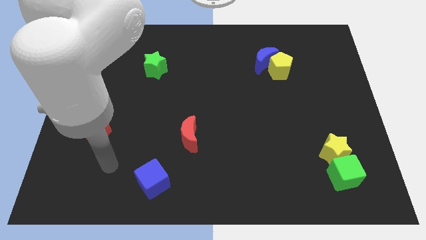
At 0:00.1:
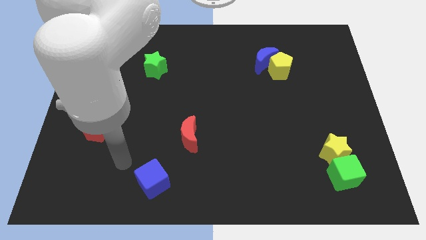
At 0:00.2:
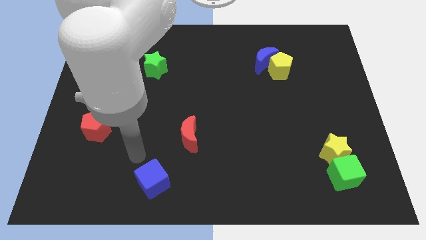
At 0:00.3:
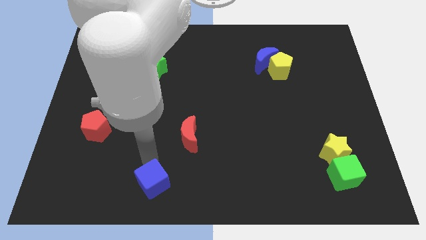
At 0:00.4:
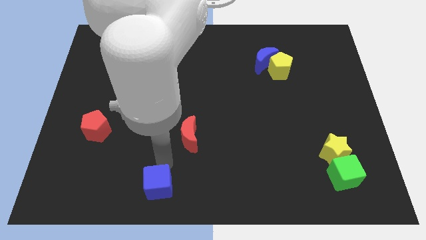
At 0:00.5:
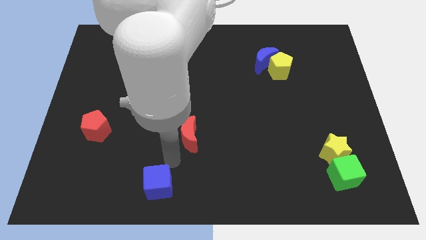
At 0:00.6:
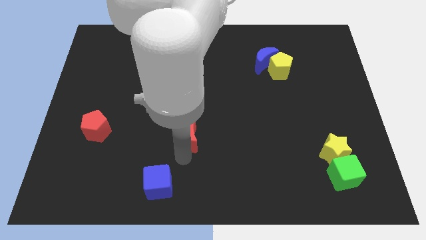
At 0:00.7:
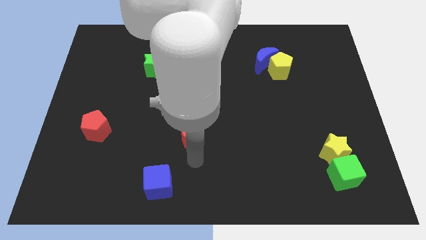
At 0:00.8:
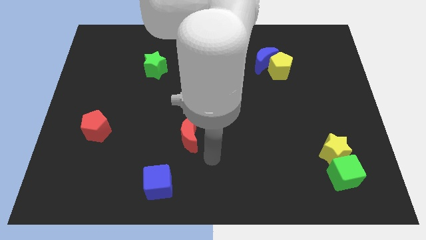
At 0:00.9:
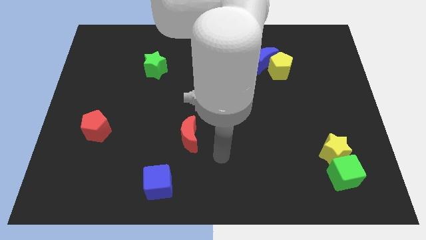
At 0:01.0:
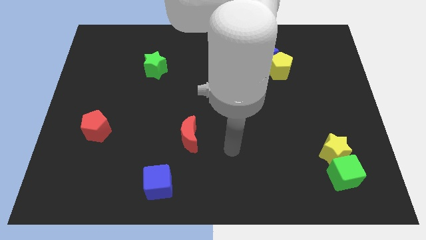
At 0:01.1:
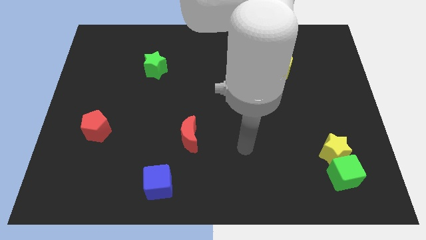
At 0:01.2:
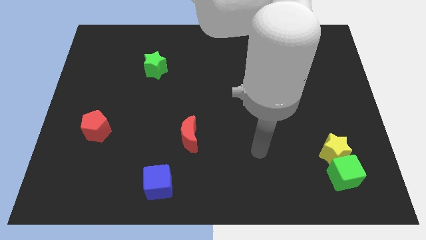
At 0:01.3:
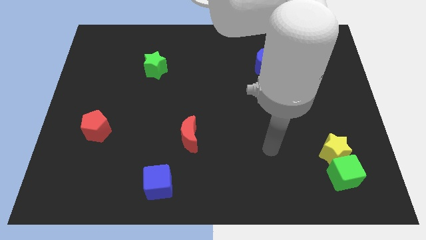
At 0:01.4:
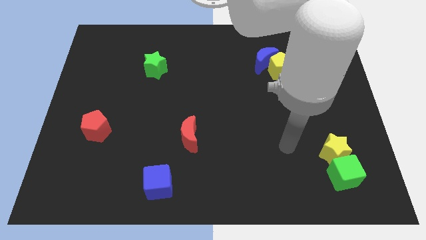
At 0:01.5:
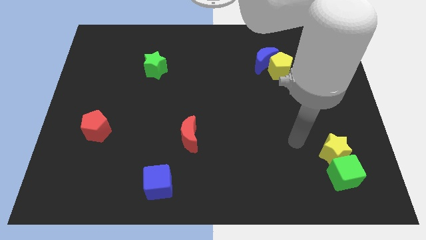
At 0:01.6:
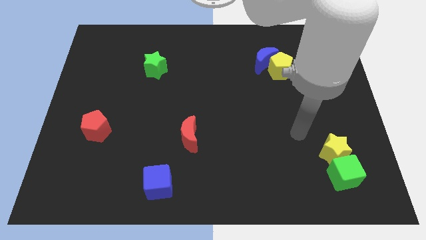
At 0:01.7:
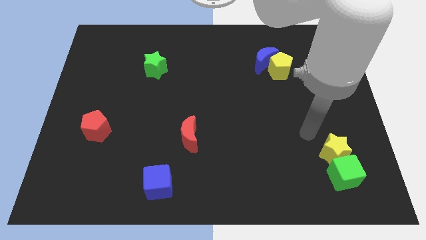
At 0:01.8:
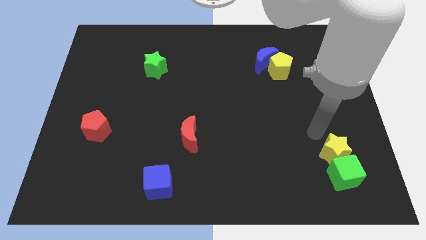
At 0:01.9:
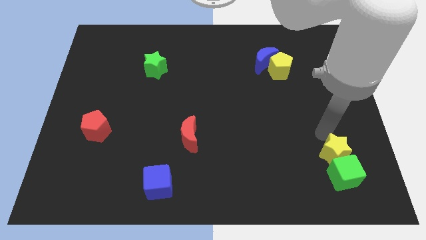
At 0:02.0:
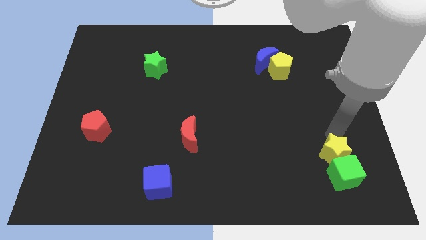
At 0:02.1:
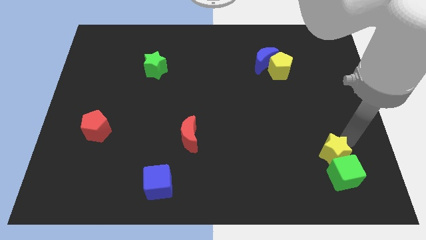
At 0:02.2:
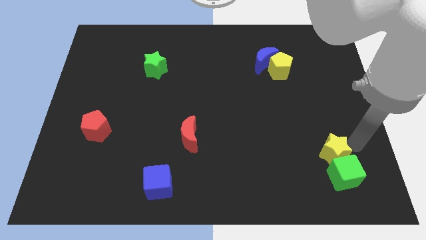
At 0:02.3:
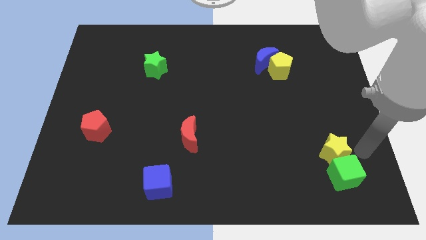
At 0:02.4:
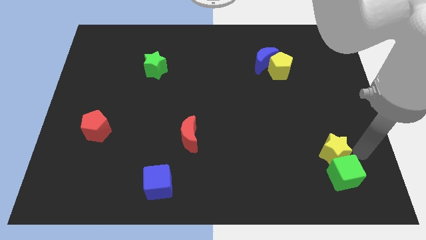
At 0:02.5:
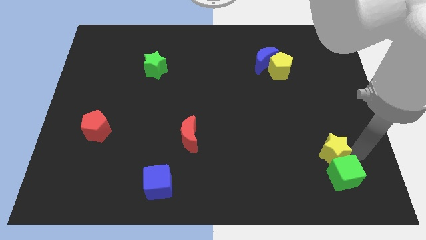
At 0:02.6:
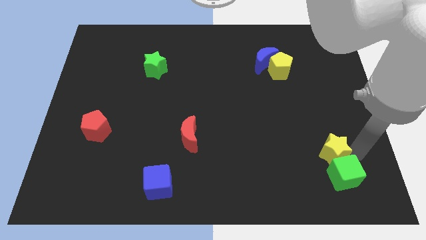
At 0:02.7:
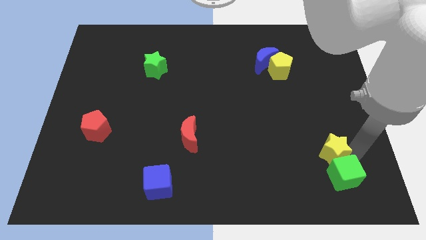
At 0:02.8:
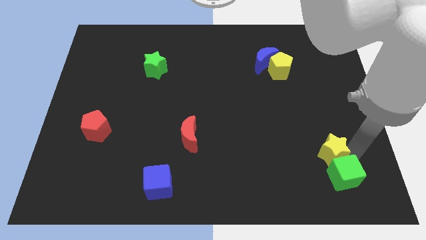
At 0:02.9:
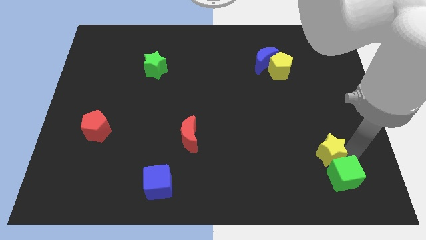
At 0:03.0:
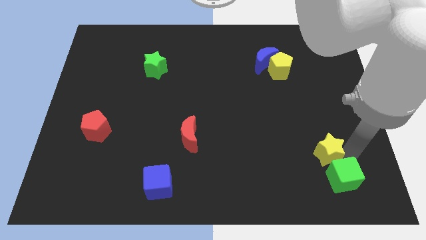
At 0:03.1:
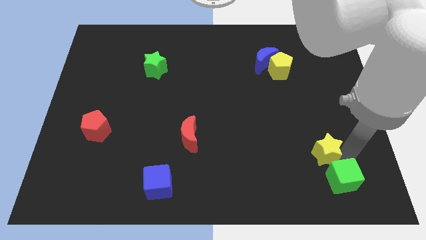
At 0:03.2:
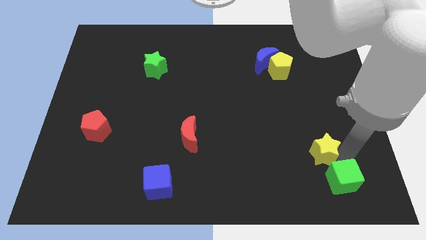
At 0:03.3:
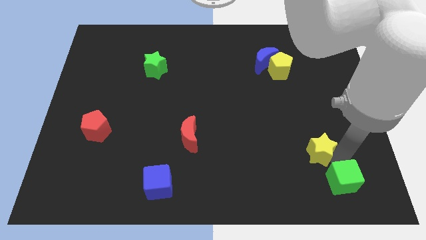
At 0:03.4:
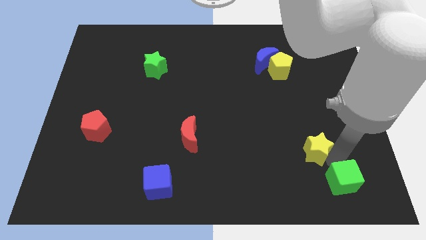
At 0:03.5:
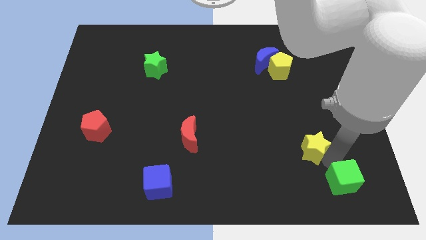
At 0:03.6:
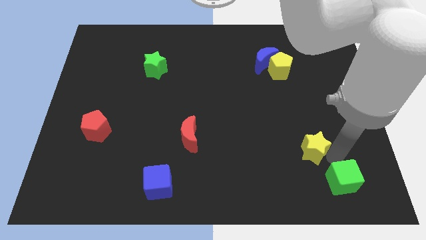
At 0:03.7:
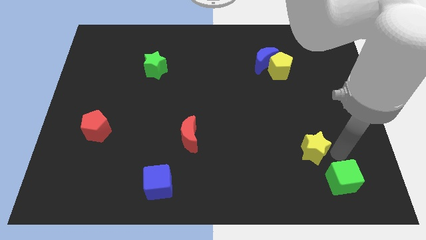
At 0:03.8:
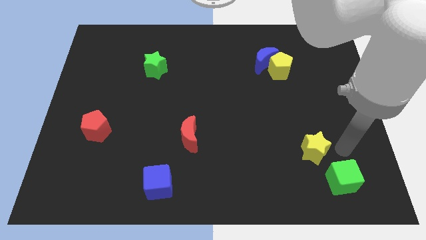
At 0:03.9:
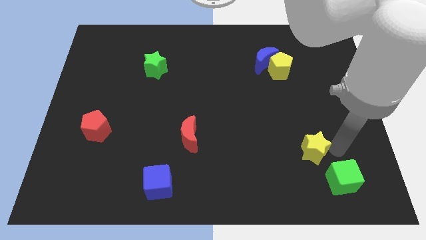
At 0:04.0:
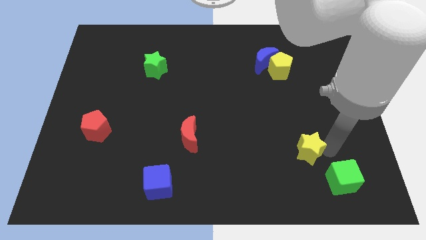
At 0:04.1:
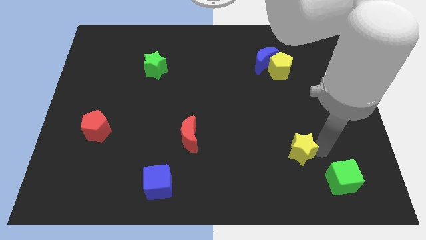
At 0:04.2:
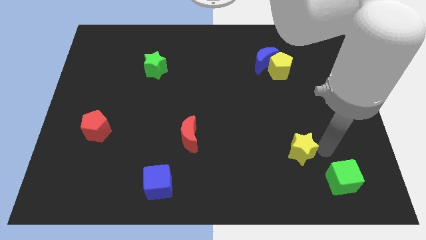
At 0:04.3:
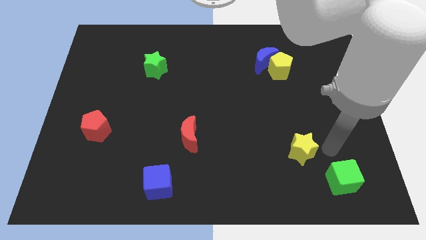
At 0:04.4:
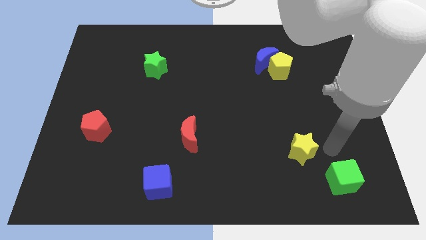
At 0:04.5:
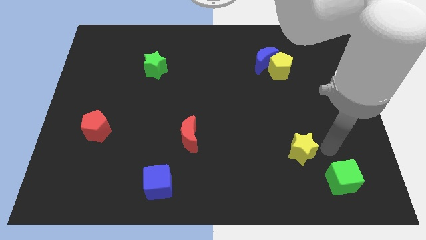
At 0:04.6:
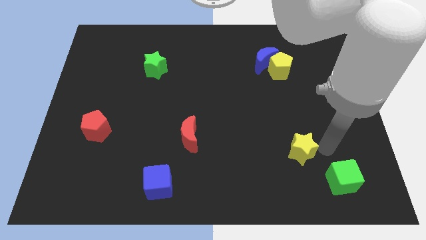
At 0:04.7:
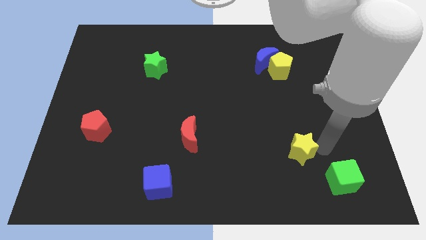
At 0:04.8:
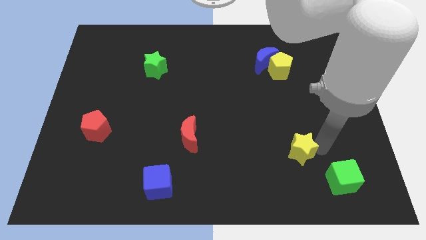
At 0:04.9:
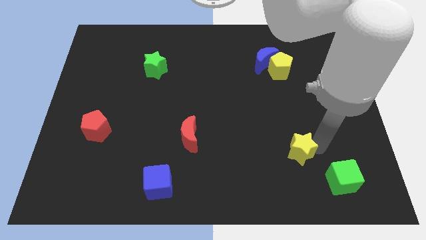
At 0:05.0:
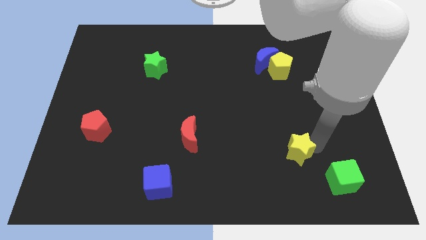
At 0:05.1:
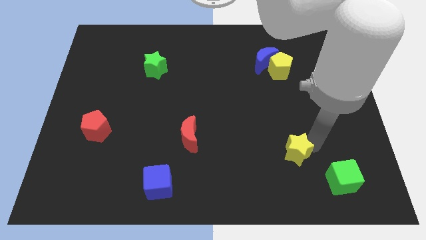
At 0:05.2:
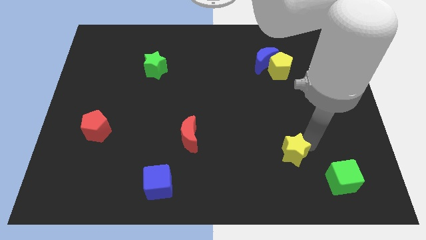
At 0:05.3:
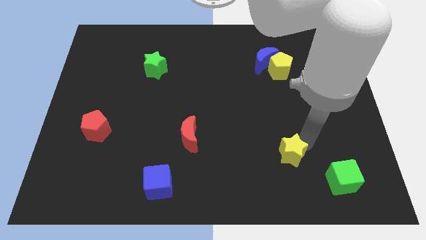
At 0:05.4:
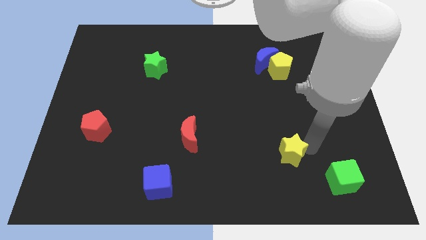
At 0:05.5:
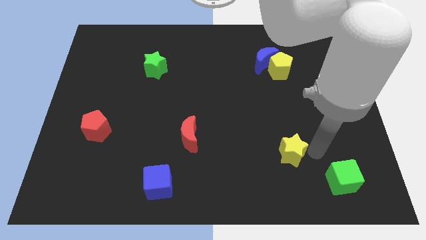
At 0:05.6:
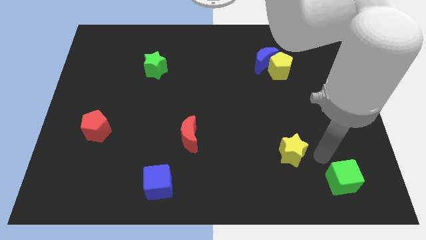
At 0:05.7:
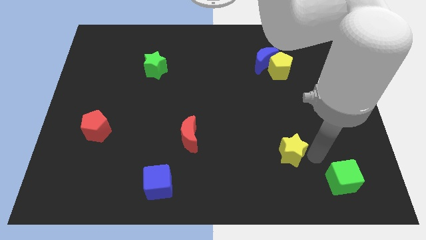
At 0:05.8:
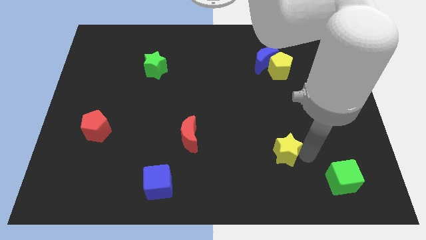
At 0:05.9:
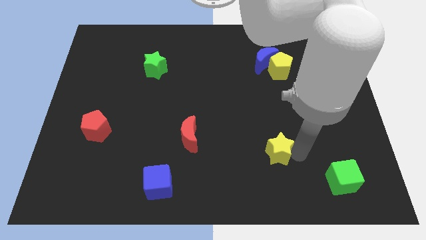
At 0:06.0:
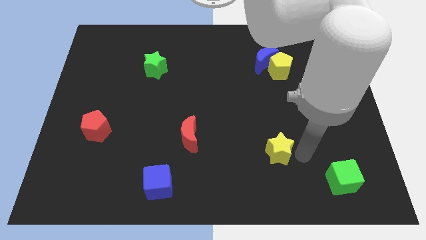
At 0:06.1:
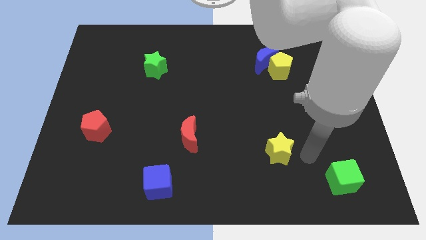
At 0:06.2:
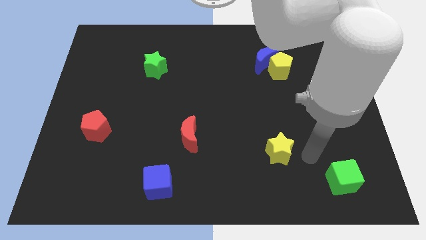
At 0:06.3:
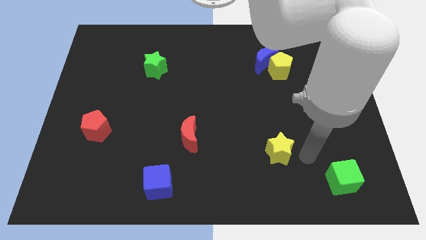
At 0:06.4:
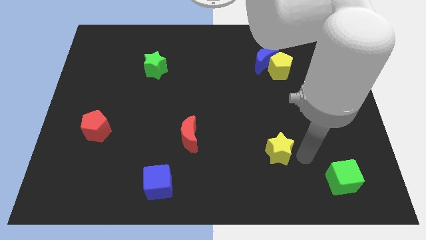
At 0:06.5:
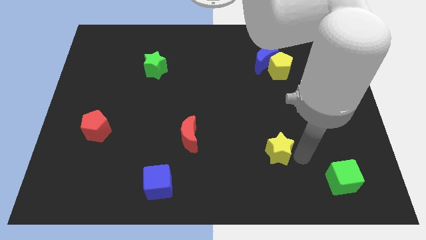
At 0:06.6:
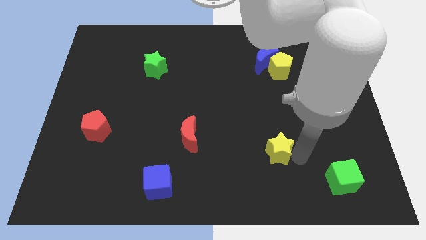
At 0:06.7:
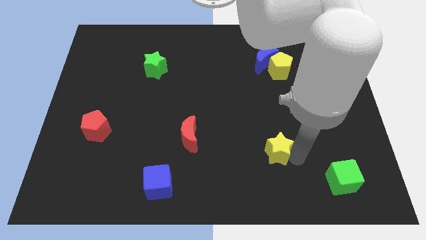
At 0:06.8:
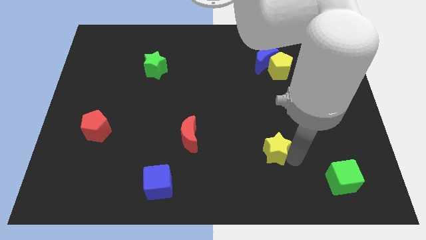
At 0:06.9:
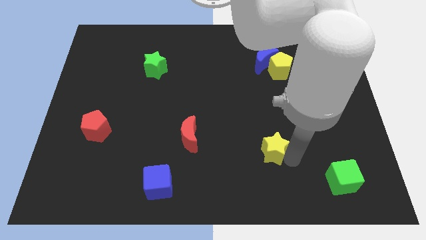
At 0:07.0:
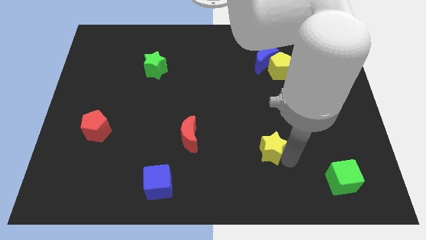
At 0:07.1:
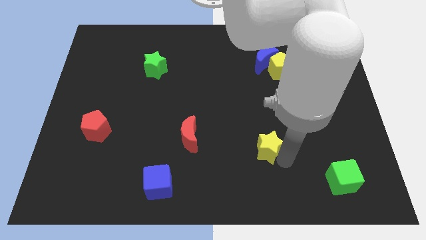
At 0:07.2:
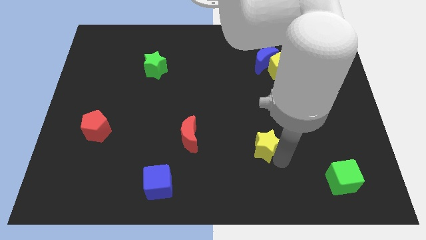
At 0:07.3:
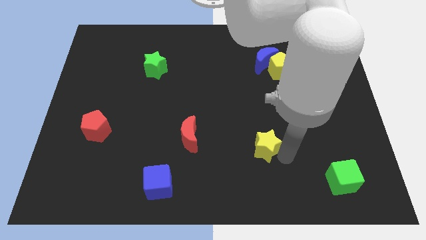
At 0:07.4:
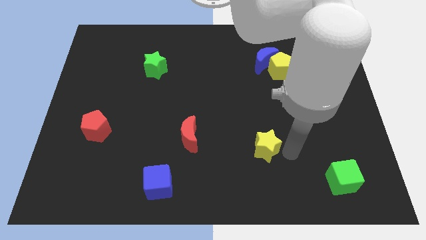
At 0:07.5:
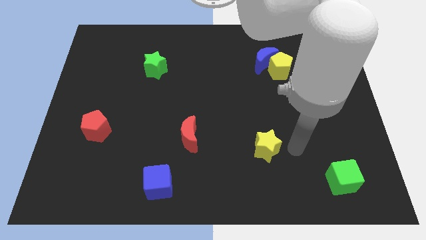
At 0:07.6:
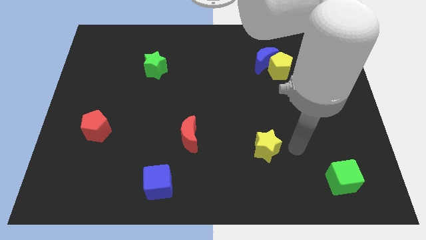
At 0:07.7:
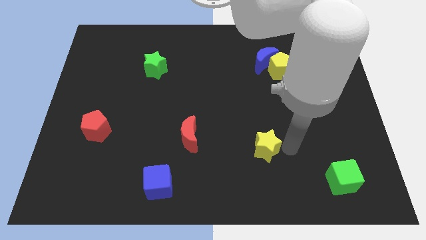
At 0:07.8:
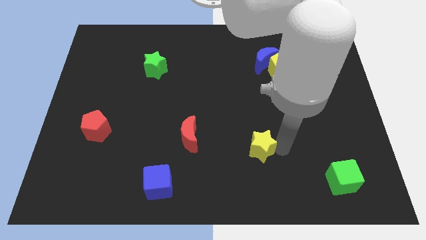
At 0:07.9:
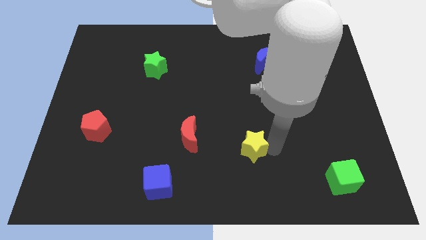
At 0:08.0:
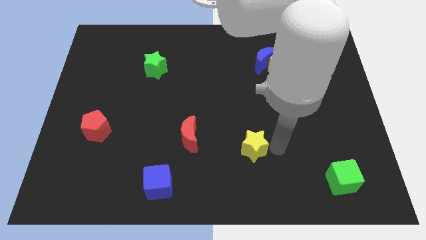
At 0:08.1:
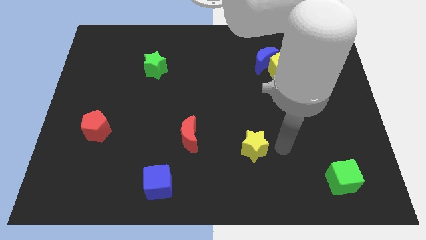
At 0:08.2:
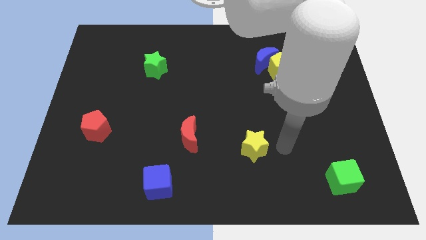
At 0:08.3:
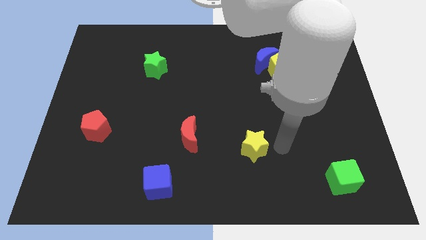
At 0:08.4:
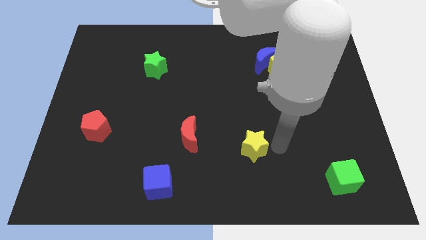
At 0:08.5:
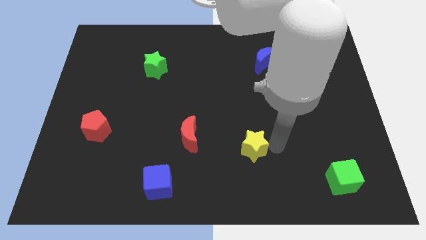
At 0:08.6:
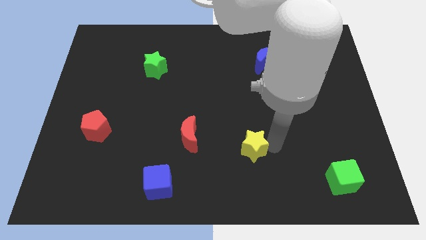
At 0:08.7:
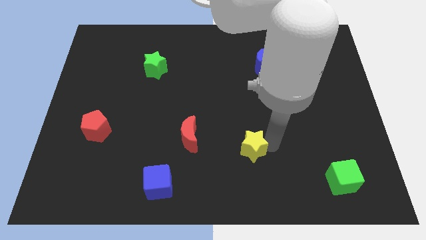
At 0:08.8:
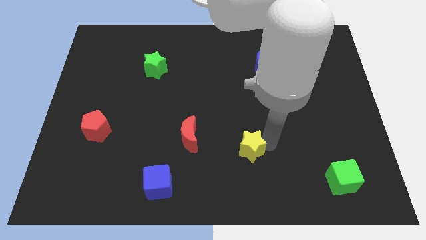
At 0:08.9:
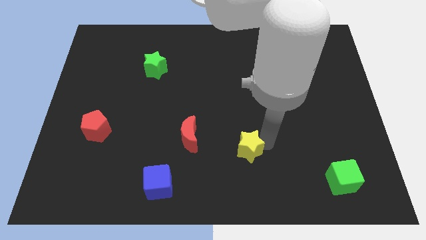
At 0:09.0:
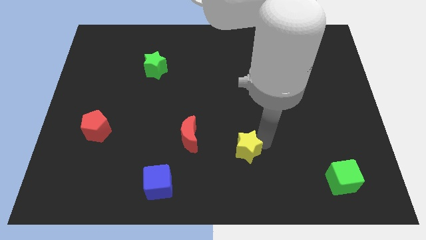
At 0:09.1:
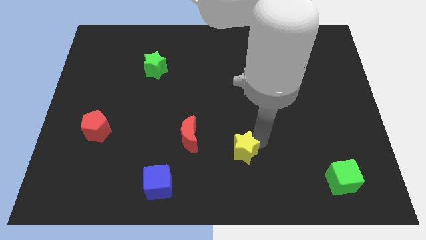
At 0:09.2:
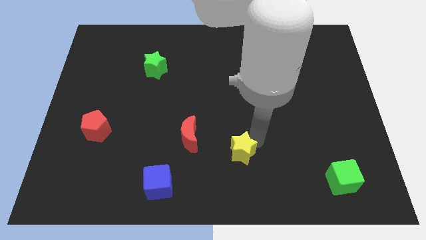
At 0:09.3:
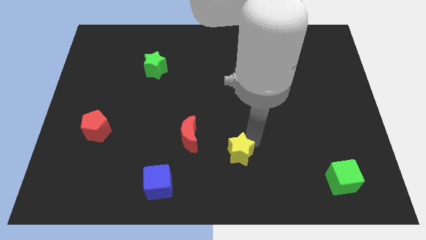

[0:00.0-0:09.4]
push the yellow star left
